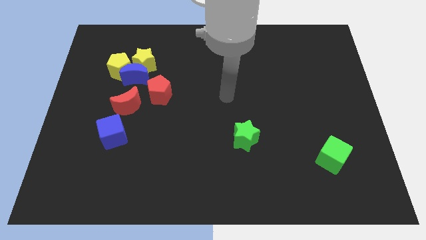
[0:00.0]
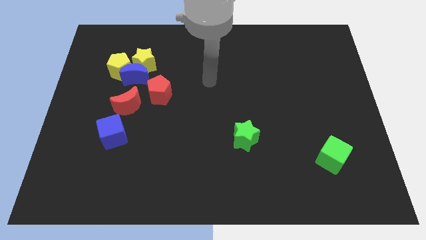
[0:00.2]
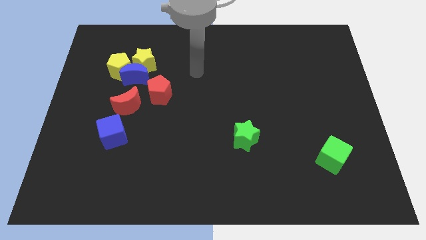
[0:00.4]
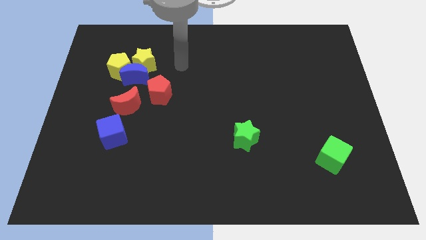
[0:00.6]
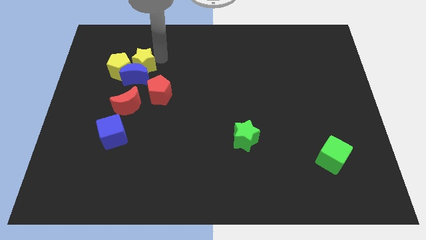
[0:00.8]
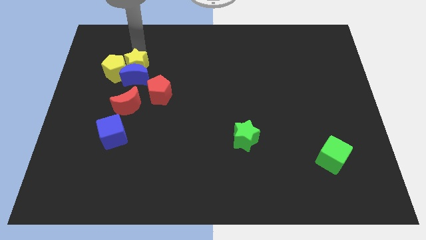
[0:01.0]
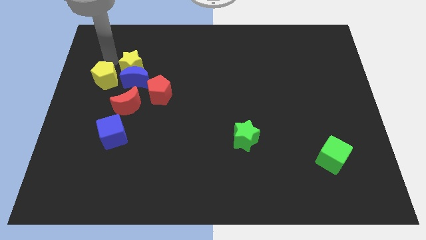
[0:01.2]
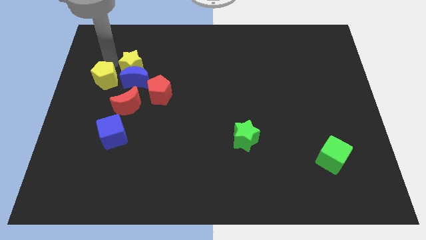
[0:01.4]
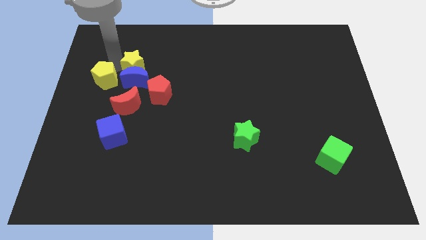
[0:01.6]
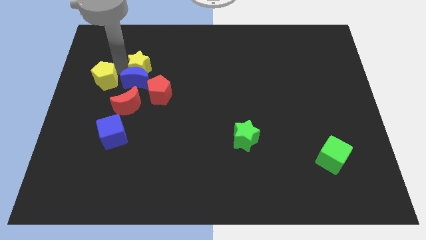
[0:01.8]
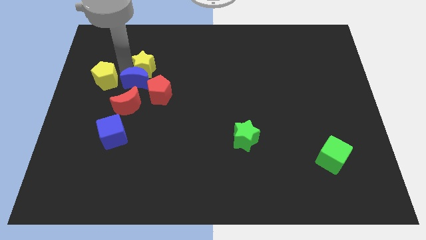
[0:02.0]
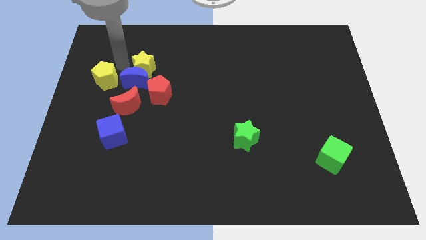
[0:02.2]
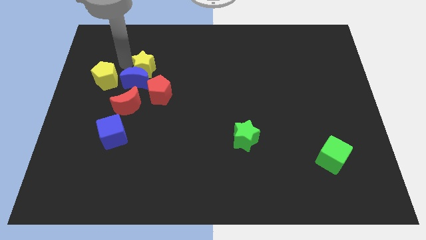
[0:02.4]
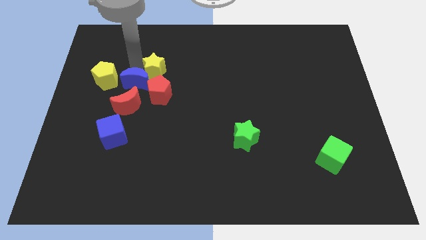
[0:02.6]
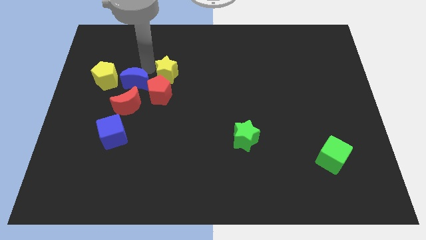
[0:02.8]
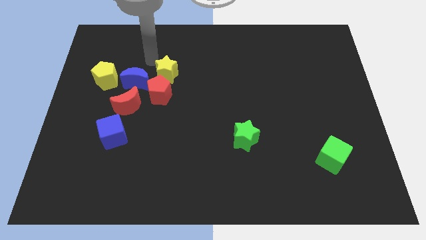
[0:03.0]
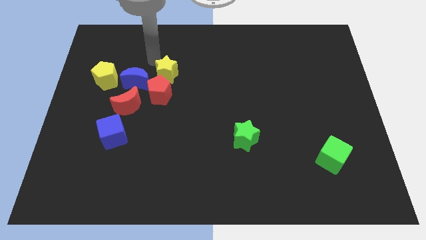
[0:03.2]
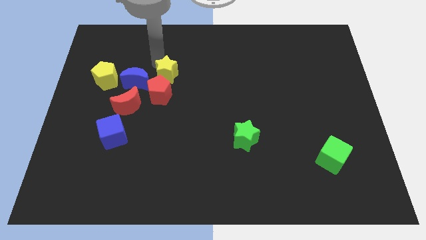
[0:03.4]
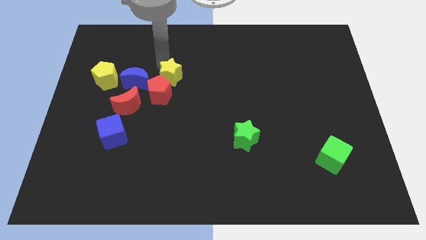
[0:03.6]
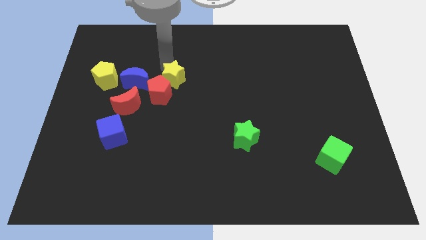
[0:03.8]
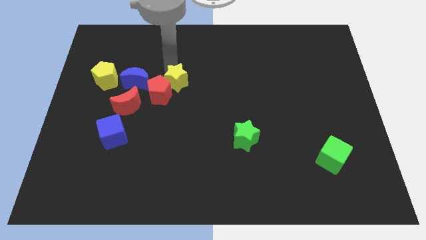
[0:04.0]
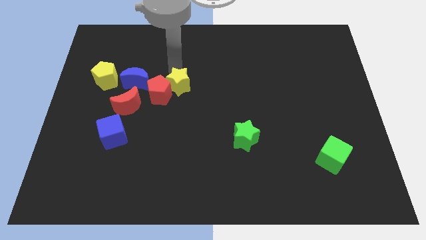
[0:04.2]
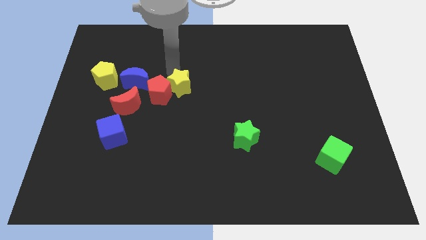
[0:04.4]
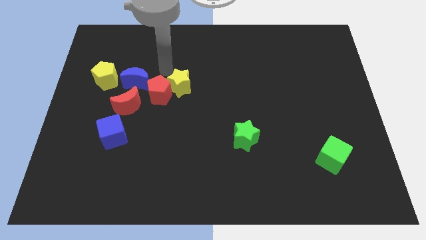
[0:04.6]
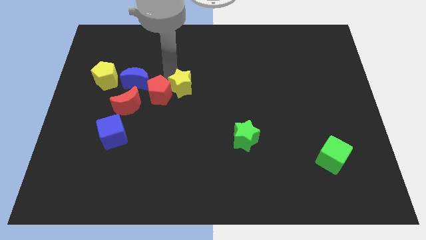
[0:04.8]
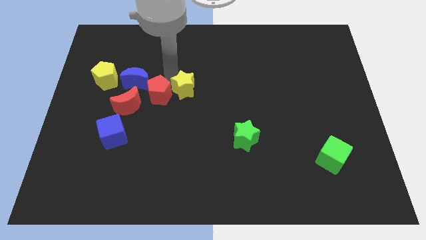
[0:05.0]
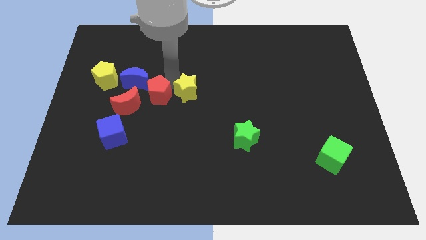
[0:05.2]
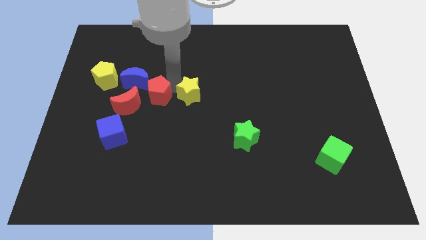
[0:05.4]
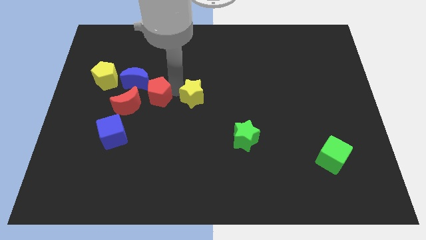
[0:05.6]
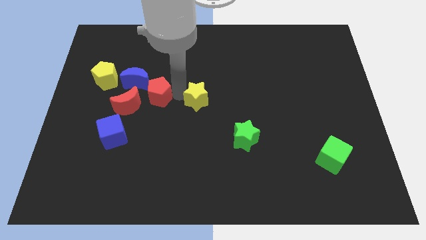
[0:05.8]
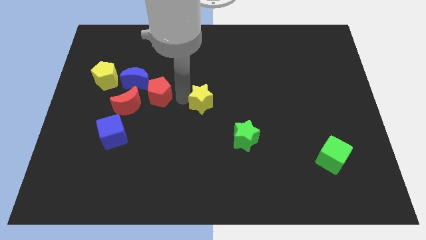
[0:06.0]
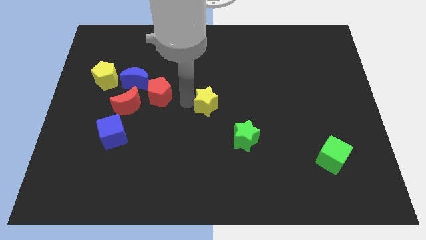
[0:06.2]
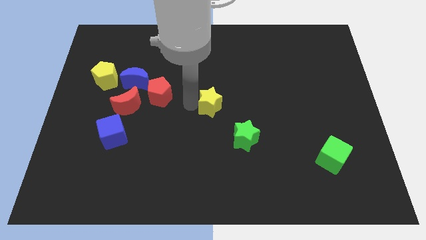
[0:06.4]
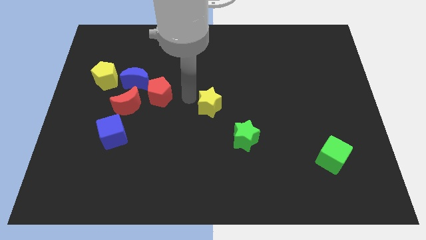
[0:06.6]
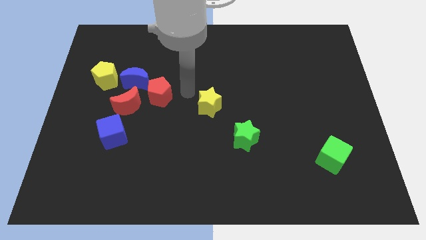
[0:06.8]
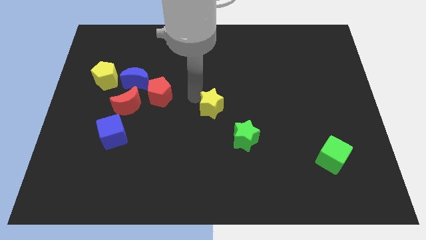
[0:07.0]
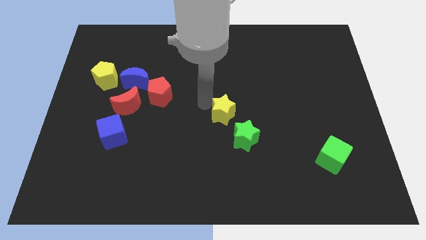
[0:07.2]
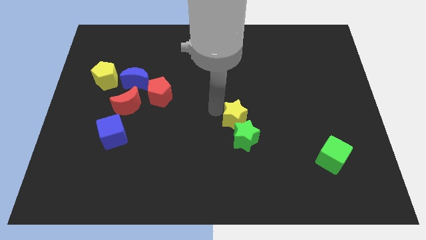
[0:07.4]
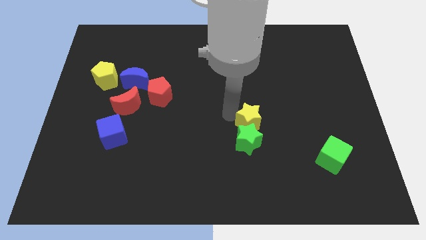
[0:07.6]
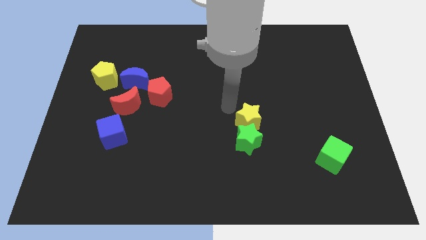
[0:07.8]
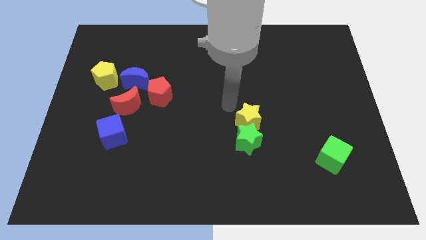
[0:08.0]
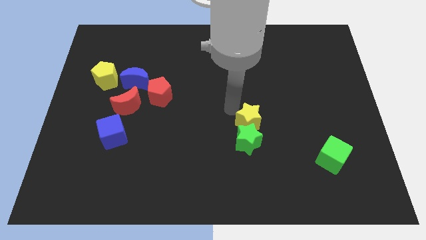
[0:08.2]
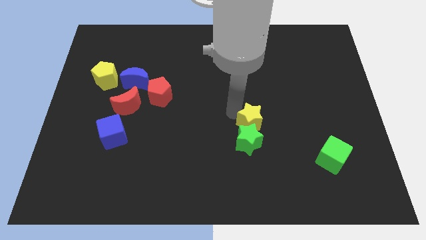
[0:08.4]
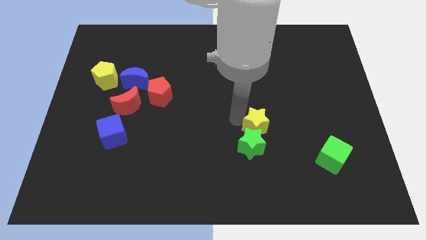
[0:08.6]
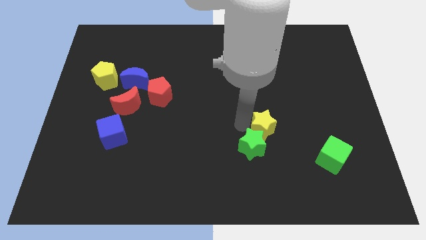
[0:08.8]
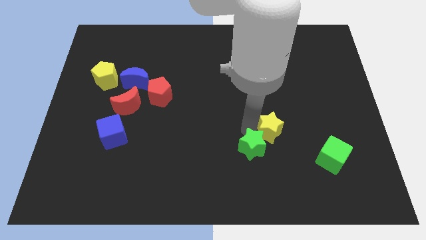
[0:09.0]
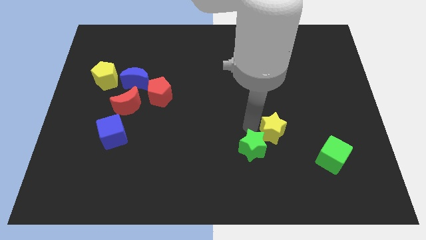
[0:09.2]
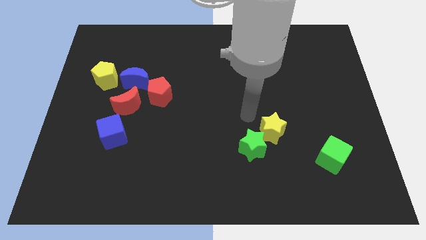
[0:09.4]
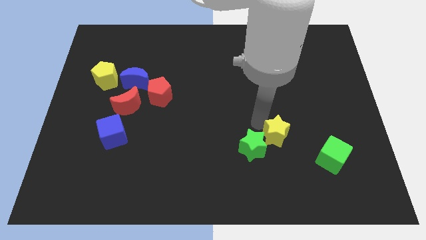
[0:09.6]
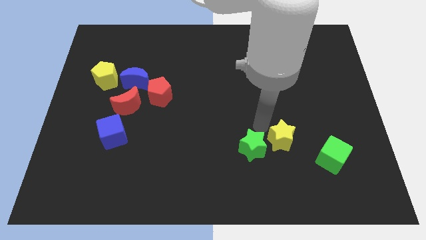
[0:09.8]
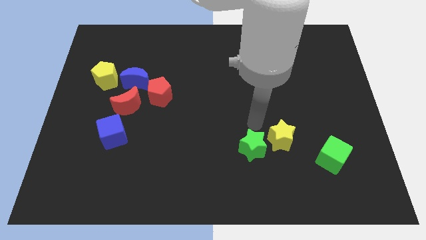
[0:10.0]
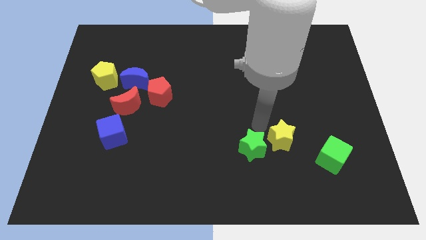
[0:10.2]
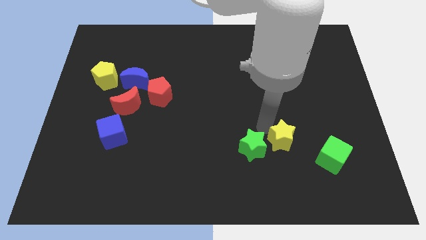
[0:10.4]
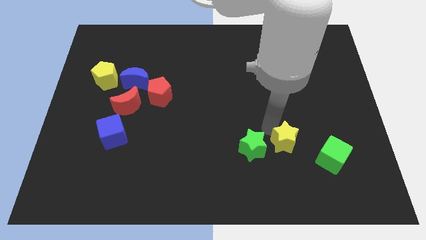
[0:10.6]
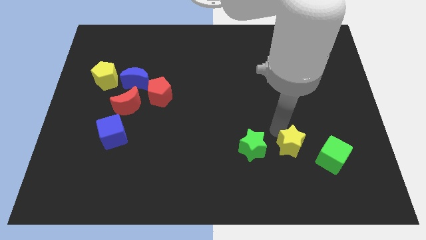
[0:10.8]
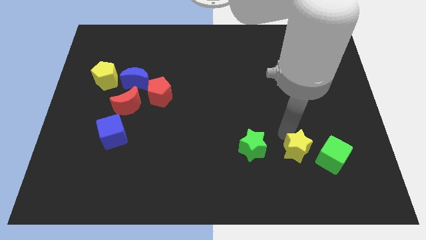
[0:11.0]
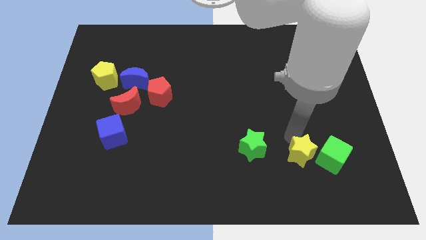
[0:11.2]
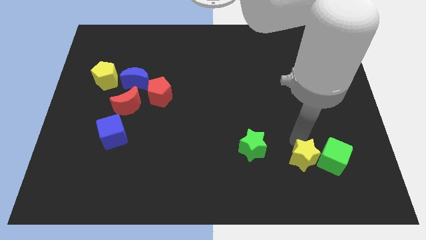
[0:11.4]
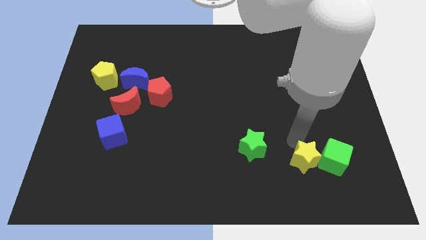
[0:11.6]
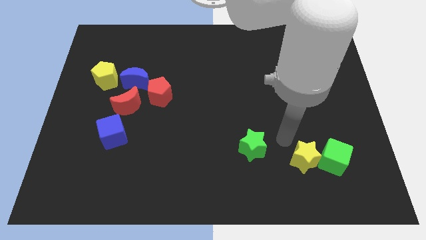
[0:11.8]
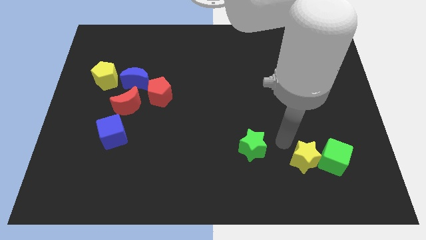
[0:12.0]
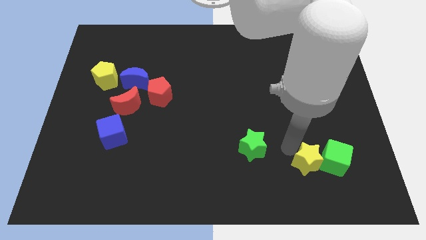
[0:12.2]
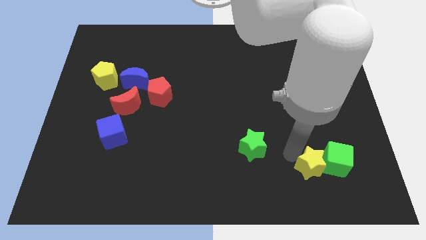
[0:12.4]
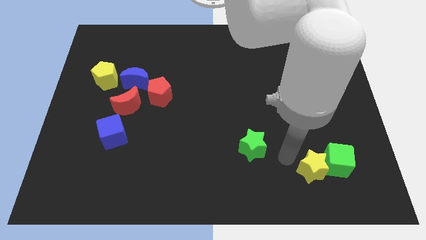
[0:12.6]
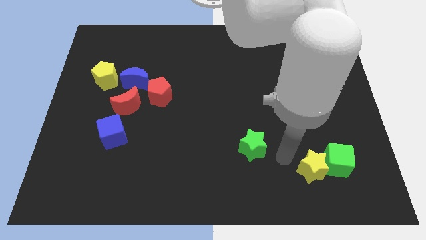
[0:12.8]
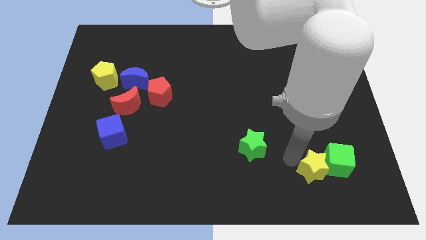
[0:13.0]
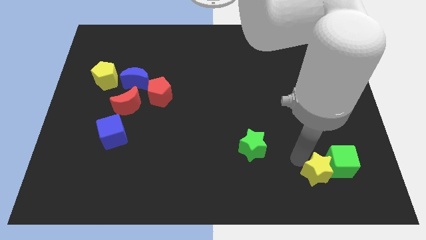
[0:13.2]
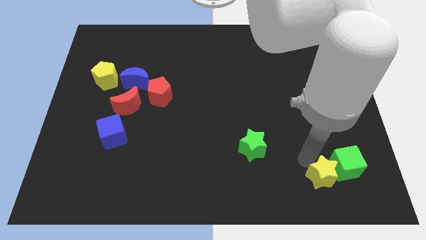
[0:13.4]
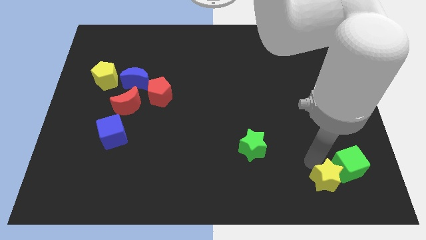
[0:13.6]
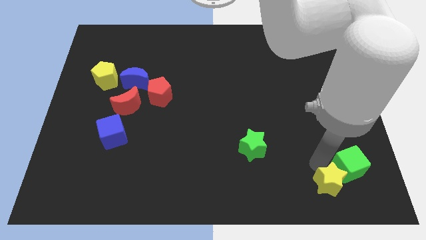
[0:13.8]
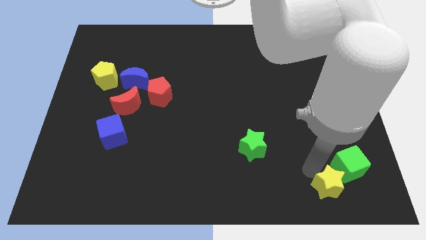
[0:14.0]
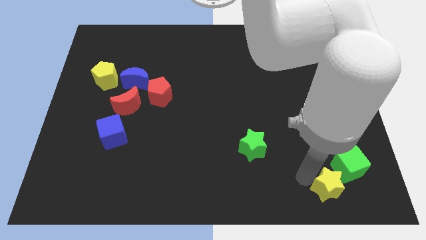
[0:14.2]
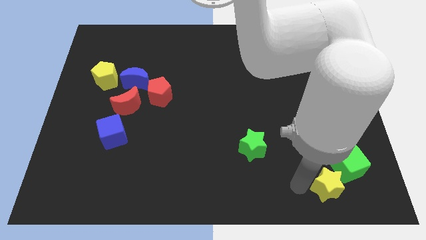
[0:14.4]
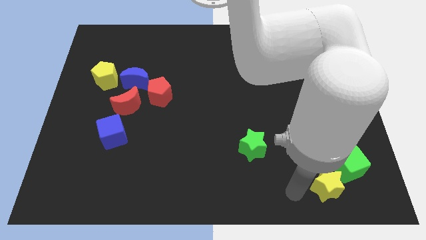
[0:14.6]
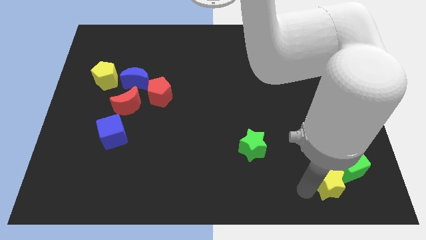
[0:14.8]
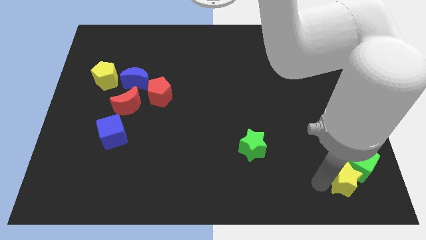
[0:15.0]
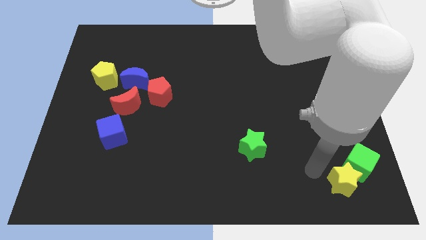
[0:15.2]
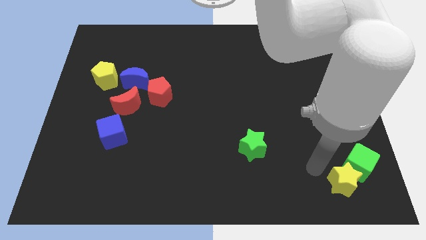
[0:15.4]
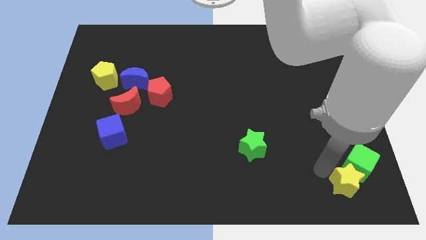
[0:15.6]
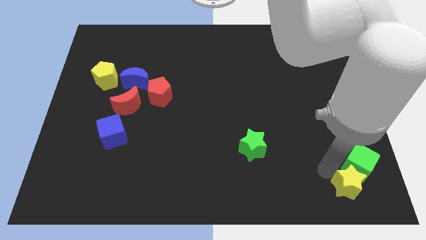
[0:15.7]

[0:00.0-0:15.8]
slide the yellow star to the lower right corner
